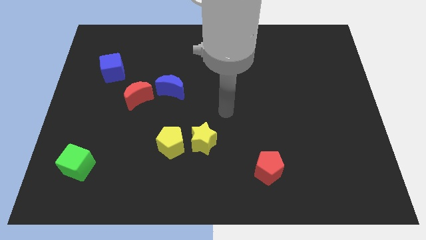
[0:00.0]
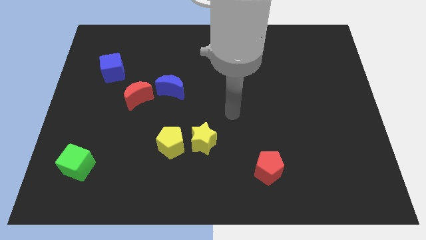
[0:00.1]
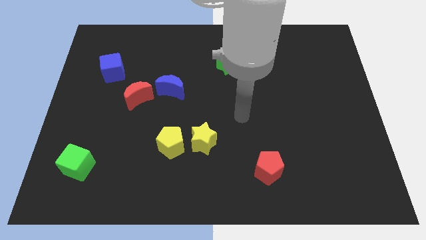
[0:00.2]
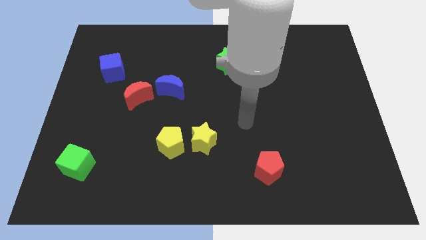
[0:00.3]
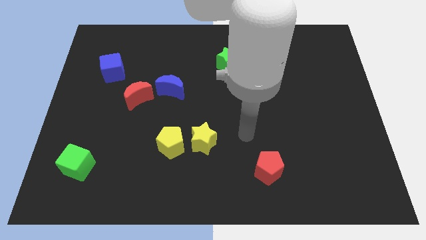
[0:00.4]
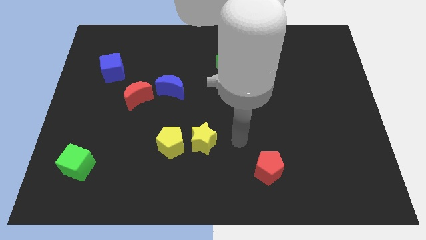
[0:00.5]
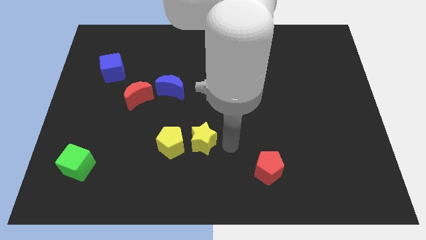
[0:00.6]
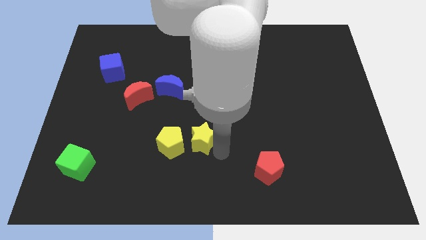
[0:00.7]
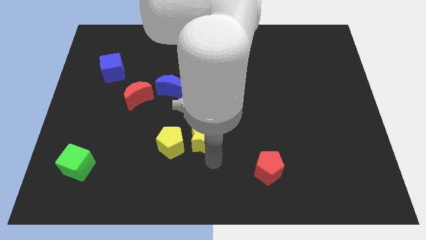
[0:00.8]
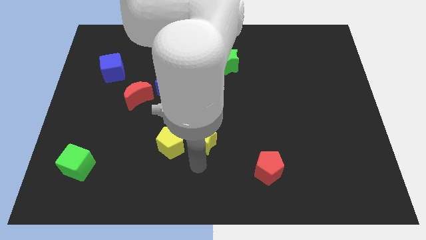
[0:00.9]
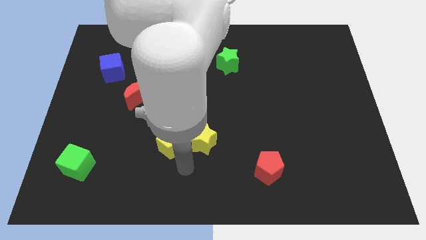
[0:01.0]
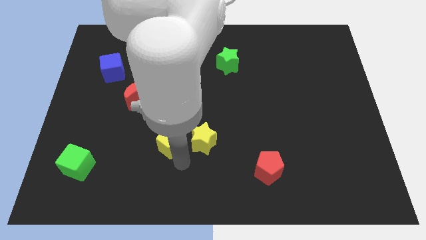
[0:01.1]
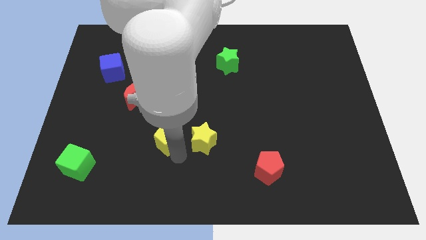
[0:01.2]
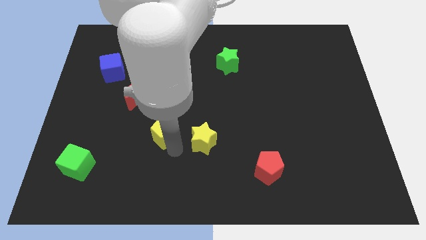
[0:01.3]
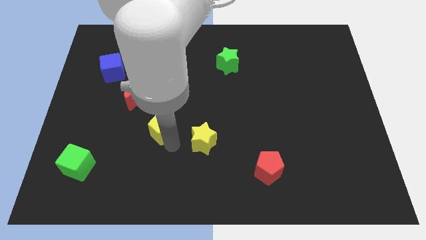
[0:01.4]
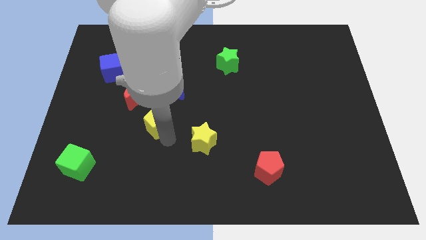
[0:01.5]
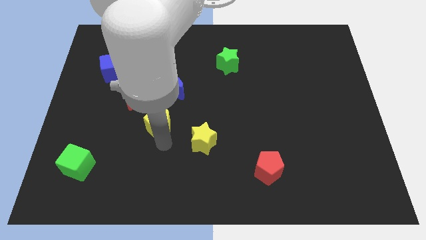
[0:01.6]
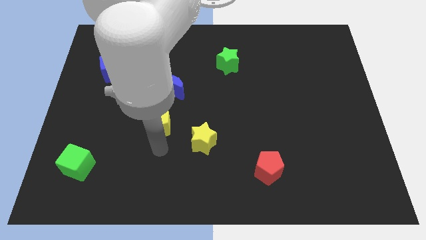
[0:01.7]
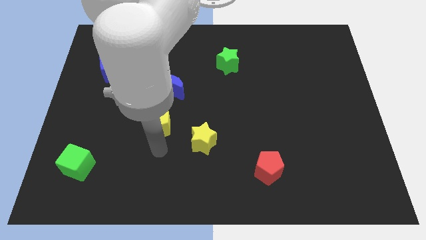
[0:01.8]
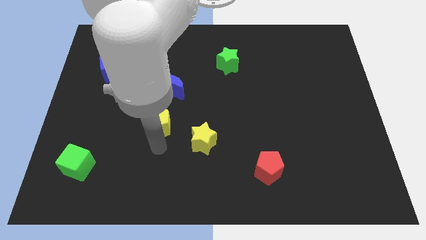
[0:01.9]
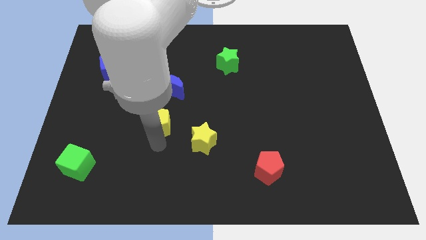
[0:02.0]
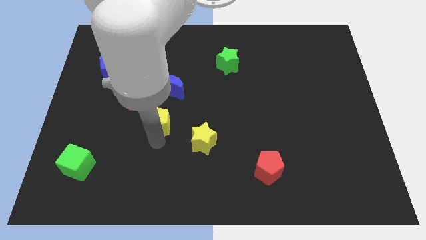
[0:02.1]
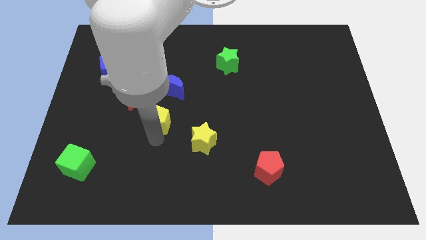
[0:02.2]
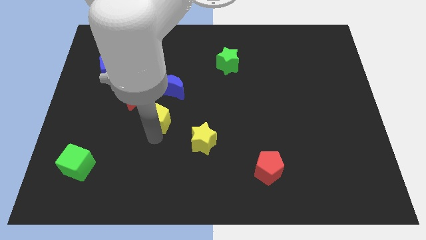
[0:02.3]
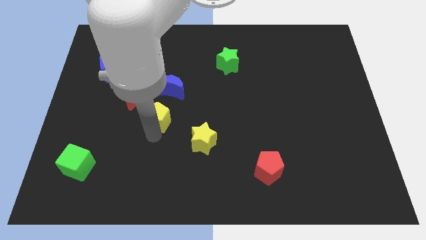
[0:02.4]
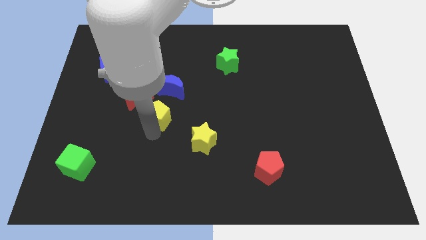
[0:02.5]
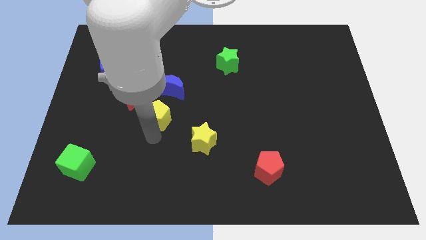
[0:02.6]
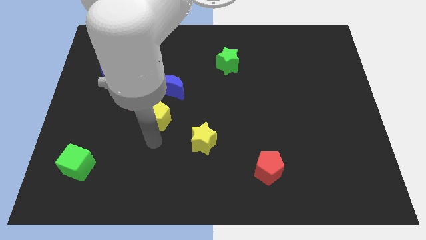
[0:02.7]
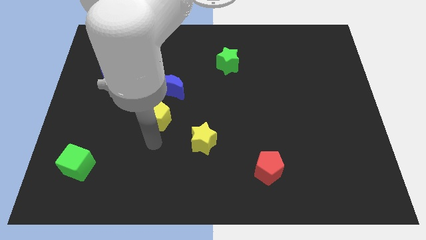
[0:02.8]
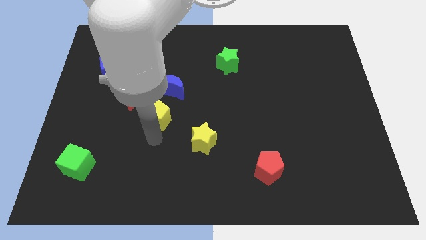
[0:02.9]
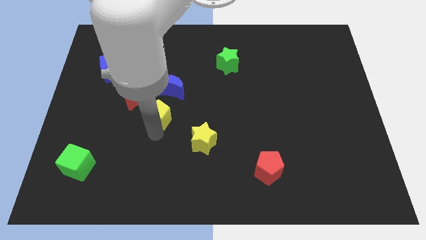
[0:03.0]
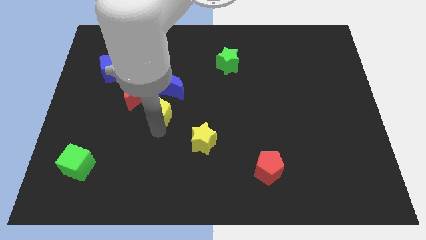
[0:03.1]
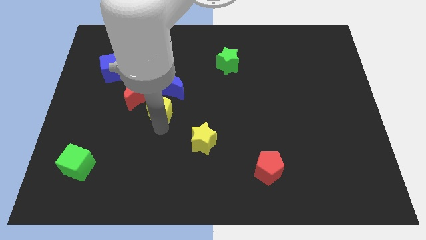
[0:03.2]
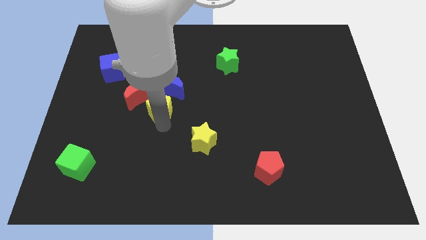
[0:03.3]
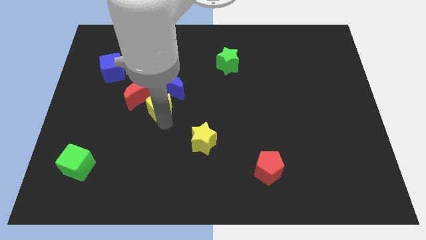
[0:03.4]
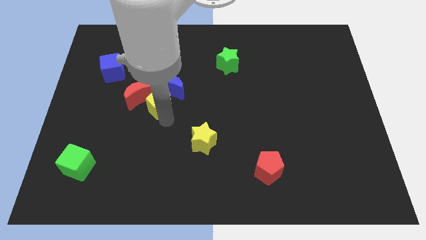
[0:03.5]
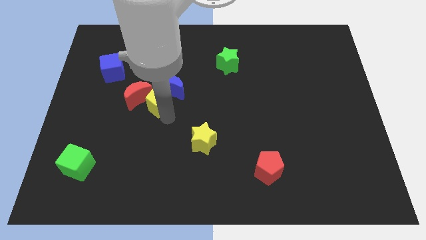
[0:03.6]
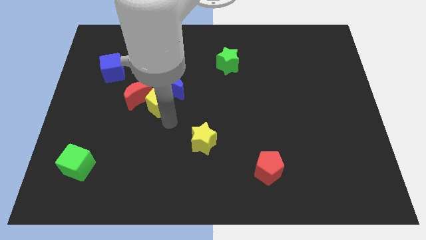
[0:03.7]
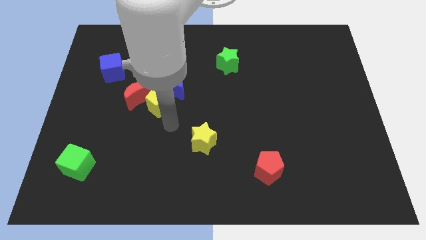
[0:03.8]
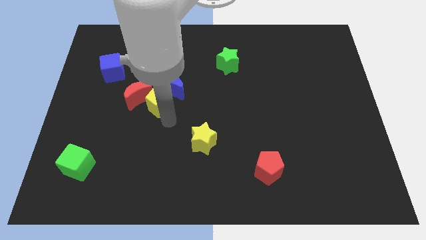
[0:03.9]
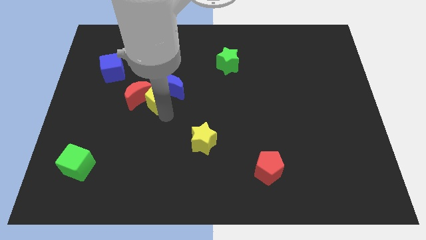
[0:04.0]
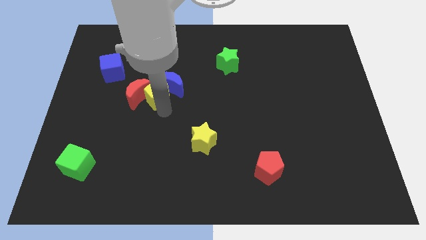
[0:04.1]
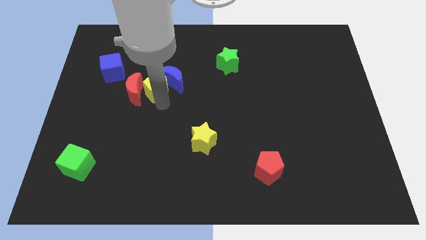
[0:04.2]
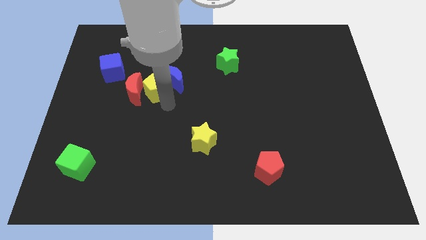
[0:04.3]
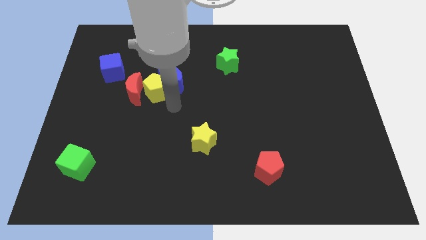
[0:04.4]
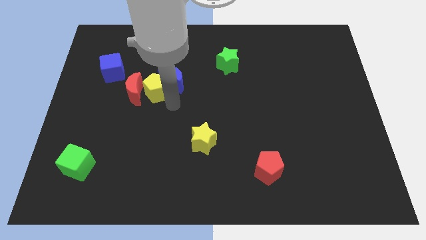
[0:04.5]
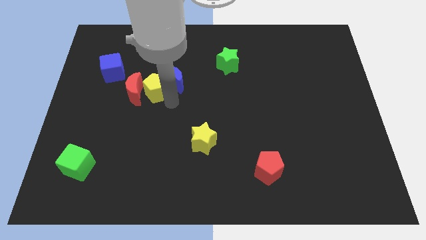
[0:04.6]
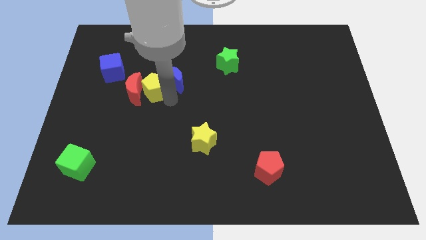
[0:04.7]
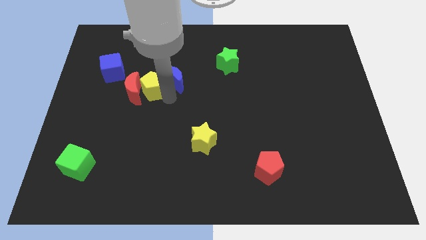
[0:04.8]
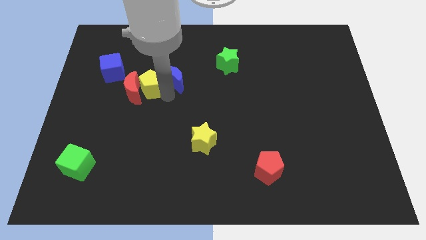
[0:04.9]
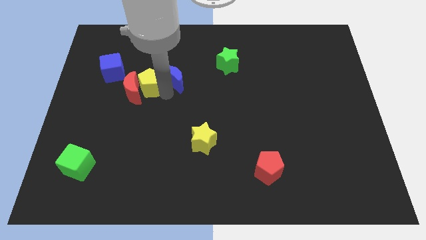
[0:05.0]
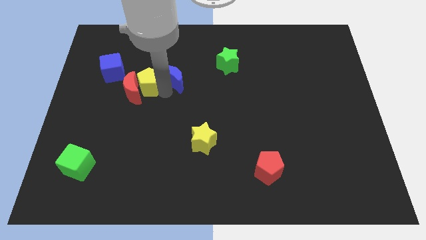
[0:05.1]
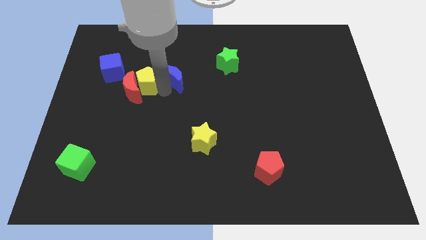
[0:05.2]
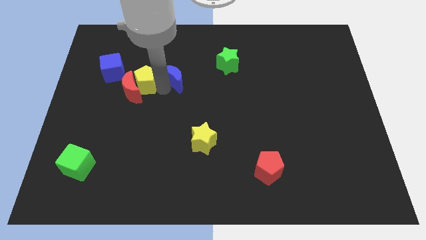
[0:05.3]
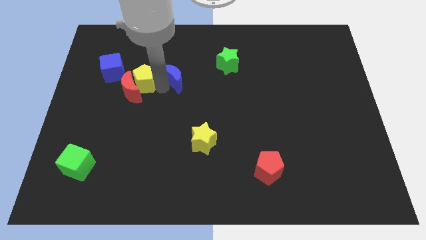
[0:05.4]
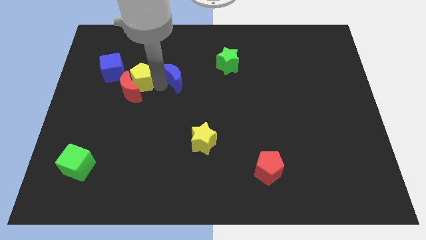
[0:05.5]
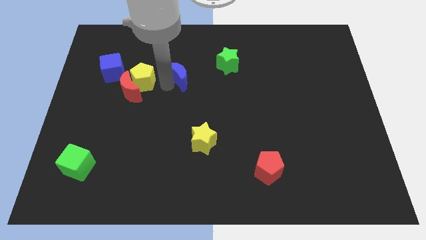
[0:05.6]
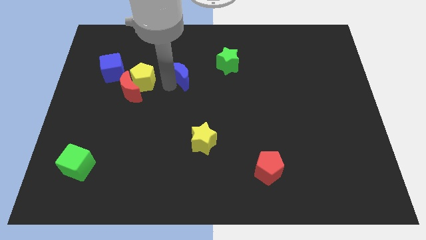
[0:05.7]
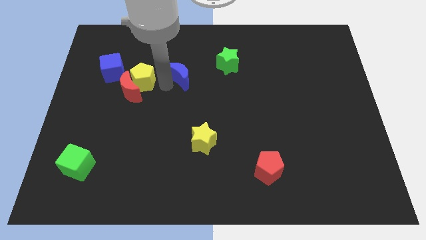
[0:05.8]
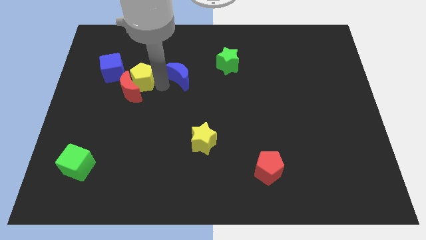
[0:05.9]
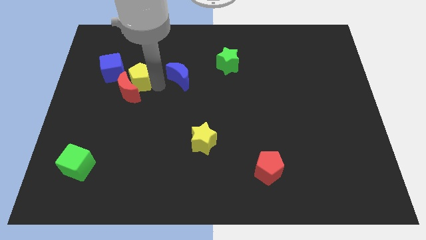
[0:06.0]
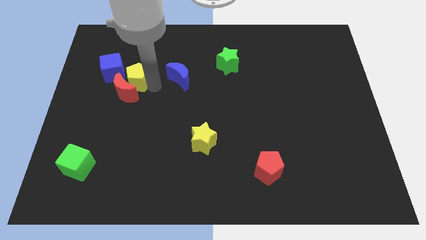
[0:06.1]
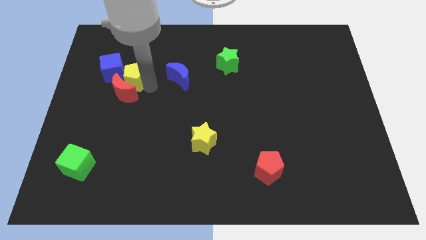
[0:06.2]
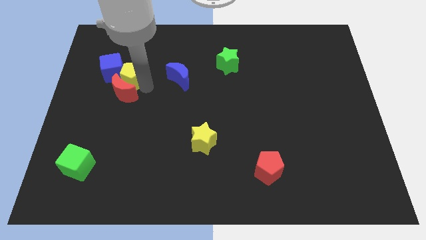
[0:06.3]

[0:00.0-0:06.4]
slide the yellow pentagon to the top left side of the red moon

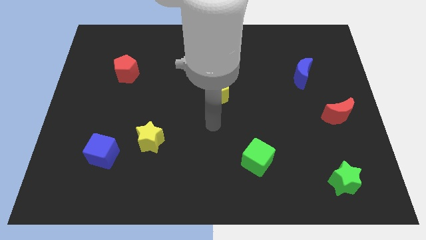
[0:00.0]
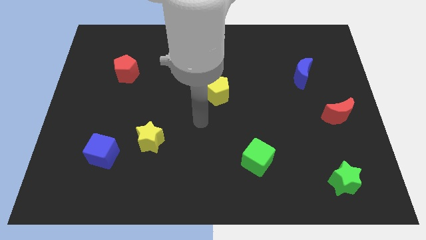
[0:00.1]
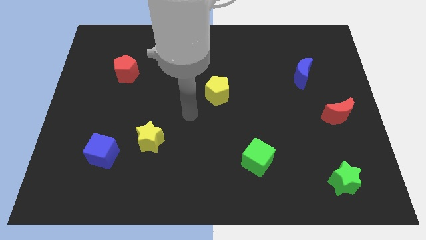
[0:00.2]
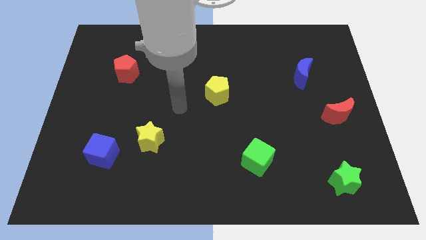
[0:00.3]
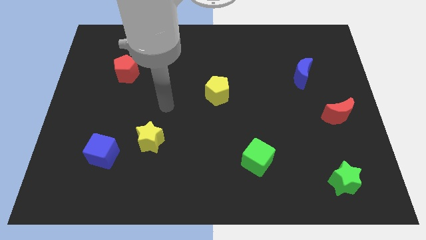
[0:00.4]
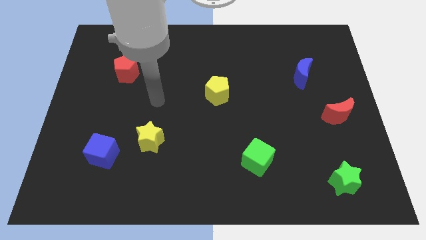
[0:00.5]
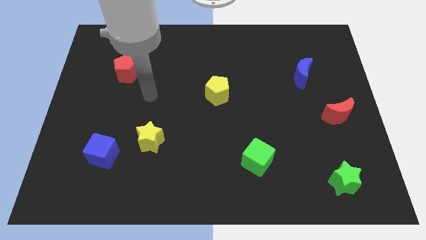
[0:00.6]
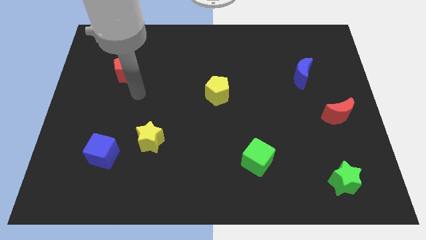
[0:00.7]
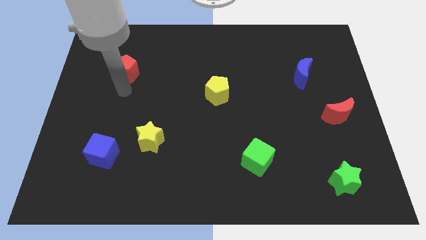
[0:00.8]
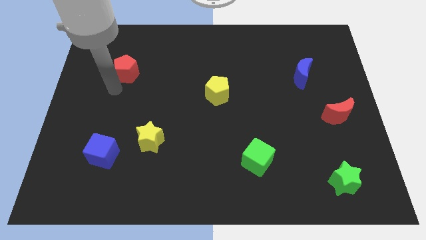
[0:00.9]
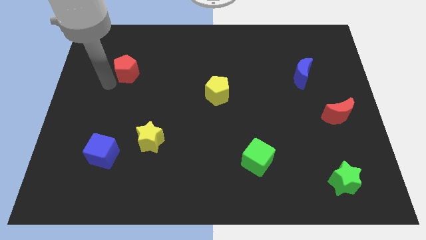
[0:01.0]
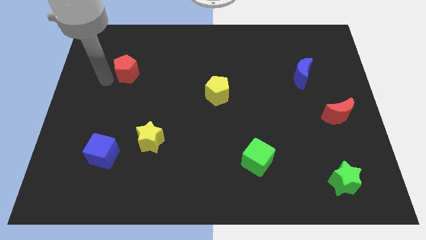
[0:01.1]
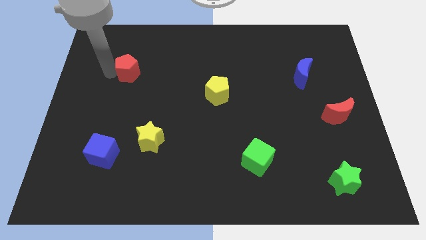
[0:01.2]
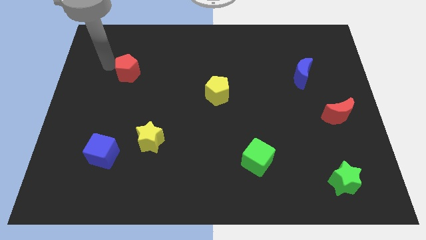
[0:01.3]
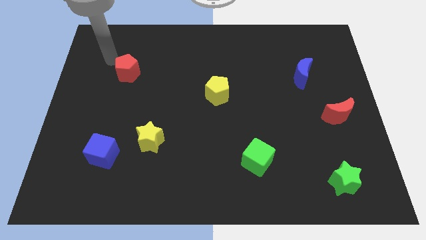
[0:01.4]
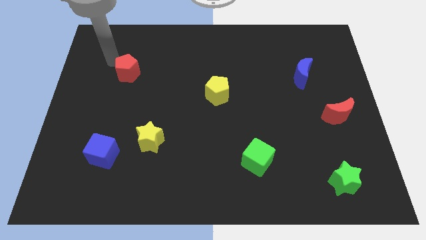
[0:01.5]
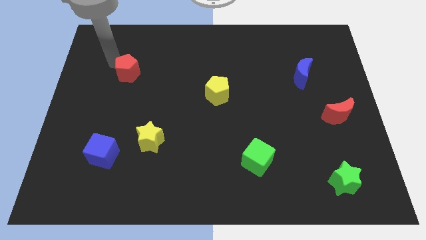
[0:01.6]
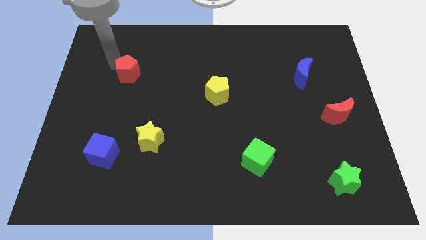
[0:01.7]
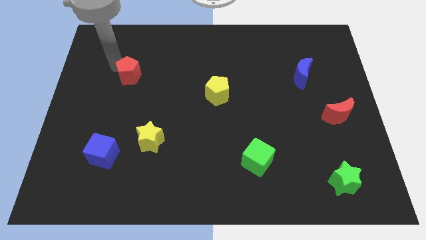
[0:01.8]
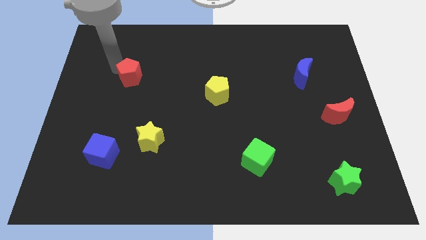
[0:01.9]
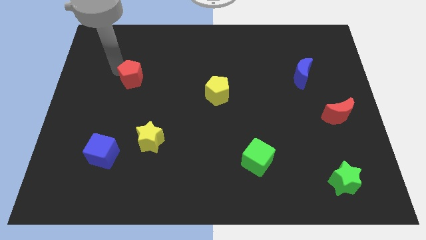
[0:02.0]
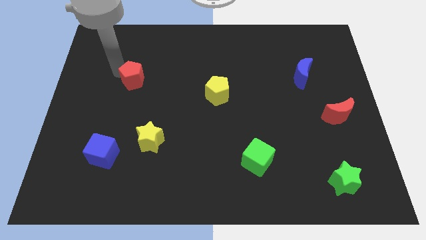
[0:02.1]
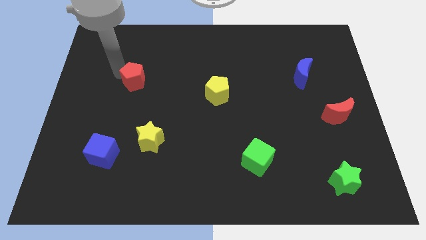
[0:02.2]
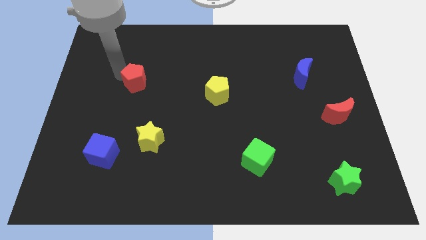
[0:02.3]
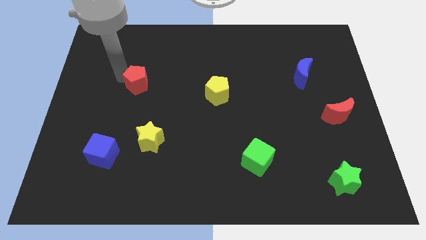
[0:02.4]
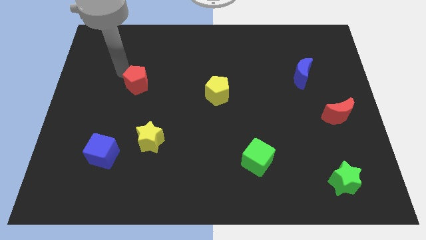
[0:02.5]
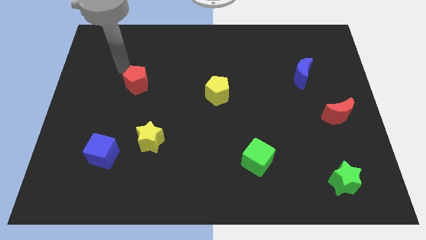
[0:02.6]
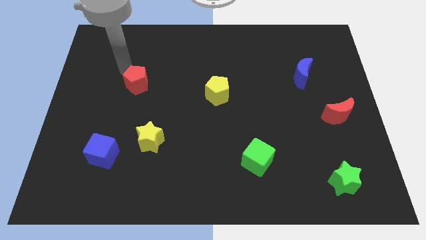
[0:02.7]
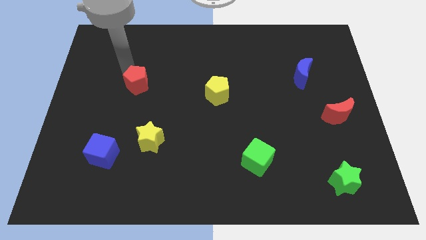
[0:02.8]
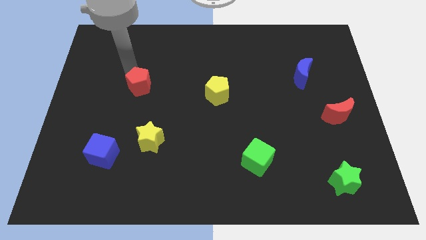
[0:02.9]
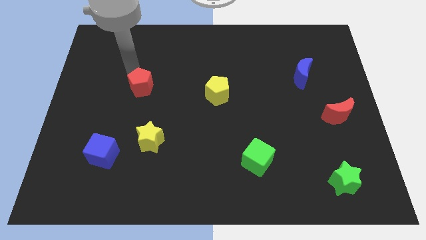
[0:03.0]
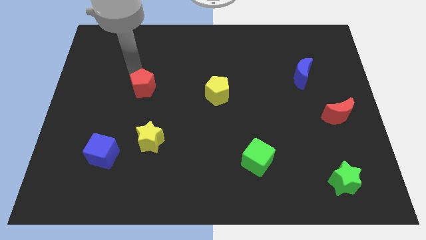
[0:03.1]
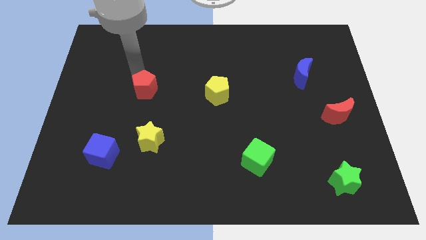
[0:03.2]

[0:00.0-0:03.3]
put the red pentagon to the top side of the yellow star
